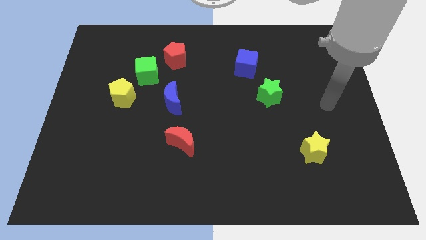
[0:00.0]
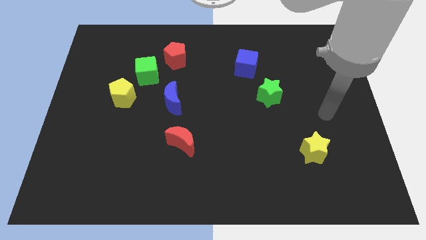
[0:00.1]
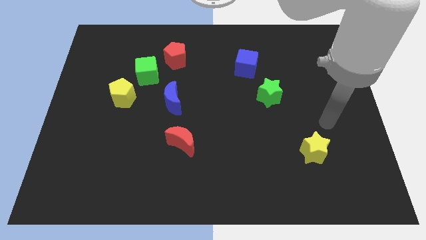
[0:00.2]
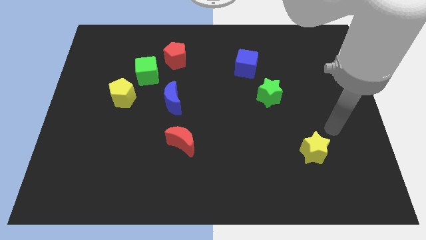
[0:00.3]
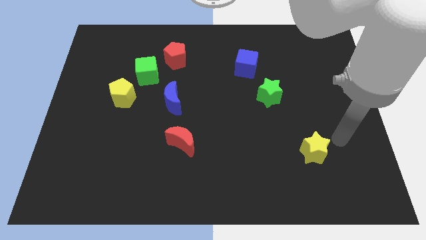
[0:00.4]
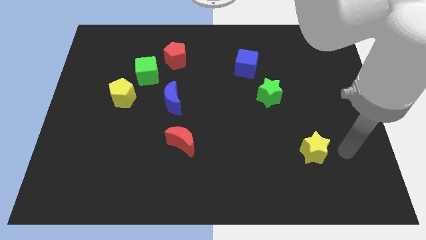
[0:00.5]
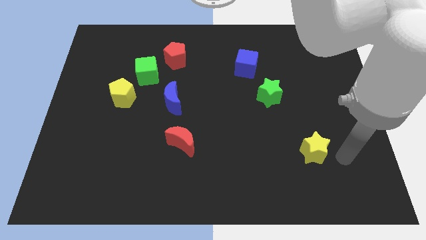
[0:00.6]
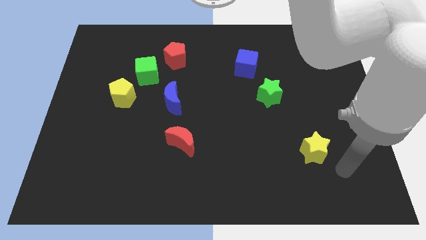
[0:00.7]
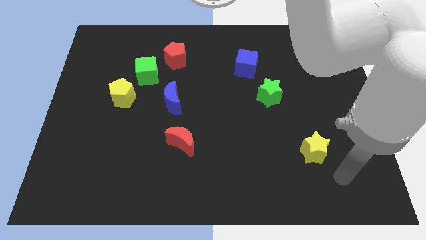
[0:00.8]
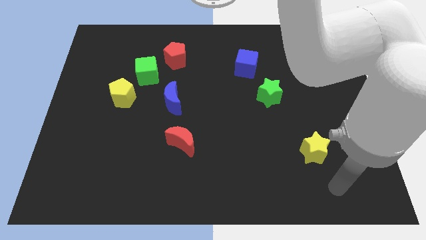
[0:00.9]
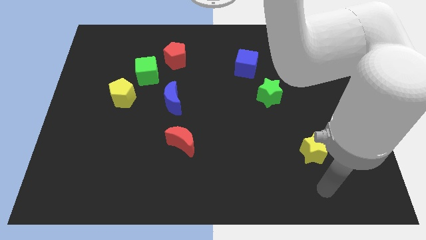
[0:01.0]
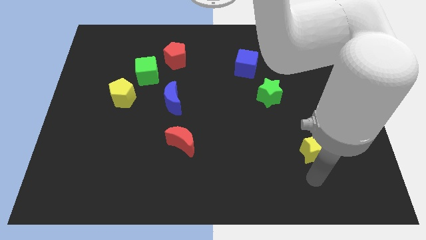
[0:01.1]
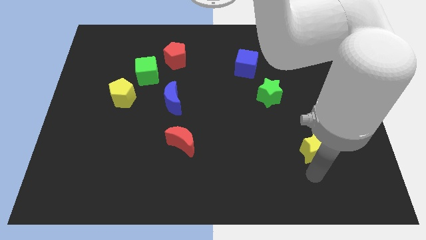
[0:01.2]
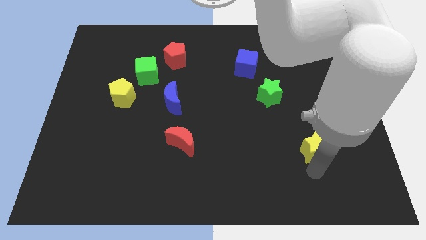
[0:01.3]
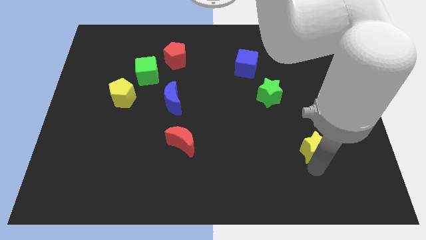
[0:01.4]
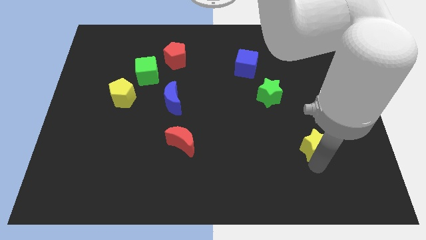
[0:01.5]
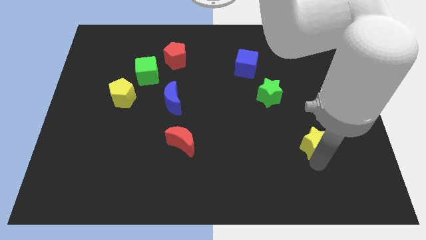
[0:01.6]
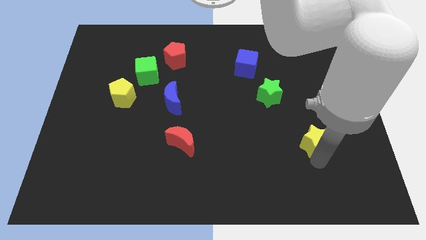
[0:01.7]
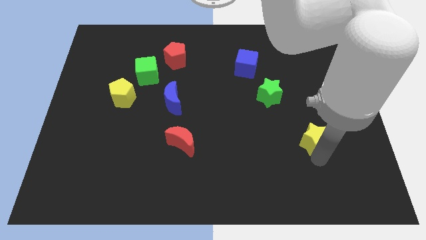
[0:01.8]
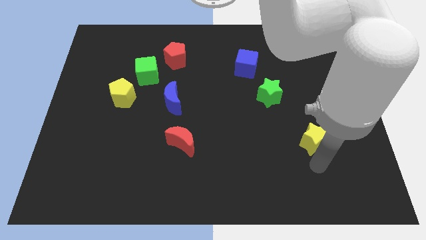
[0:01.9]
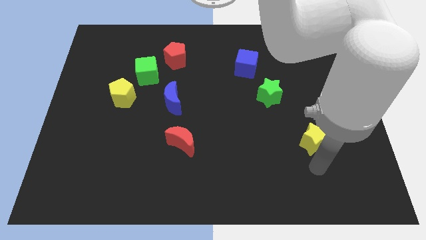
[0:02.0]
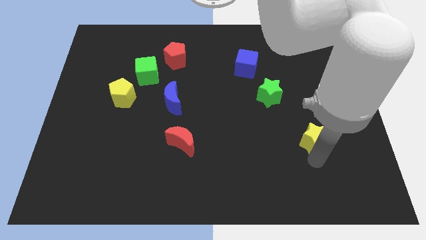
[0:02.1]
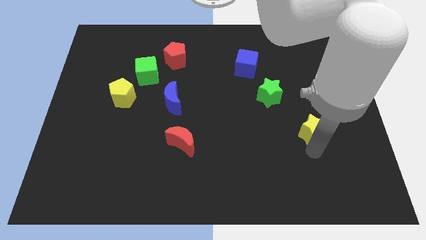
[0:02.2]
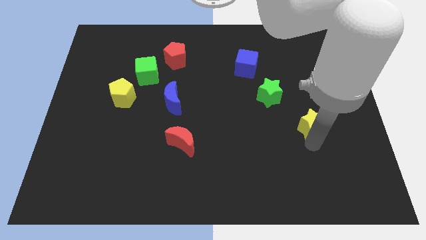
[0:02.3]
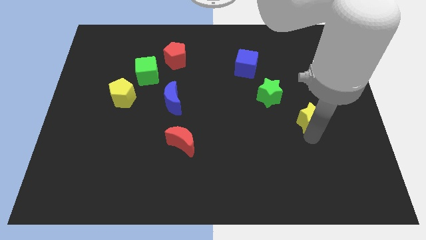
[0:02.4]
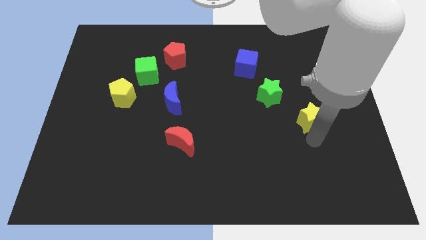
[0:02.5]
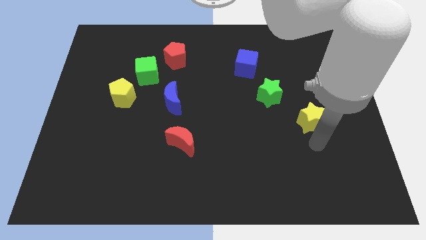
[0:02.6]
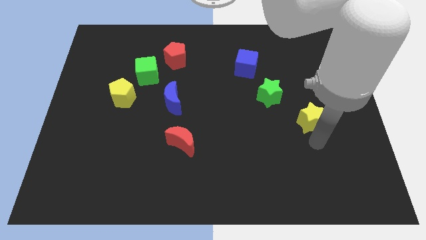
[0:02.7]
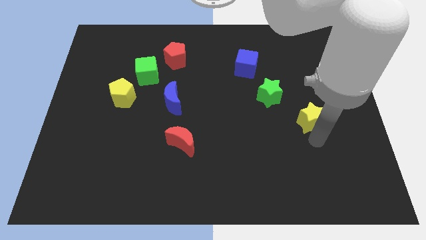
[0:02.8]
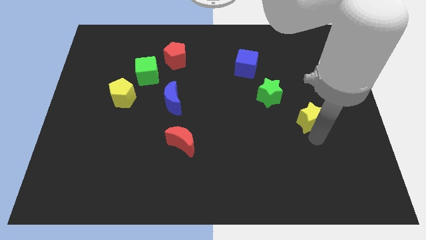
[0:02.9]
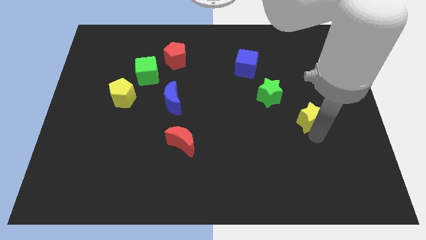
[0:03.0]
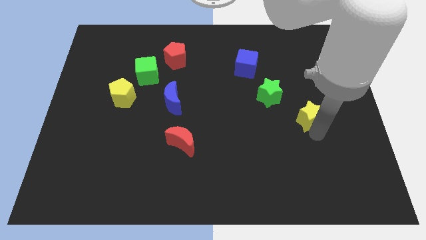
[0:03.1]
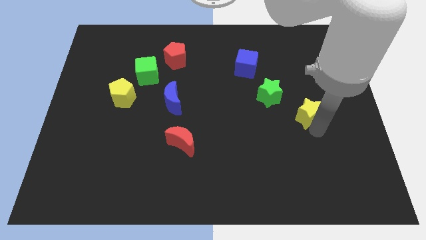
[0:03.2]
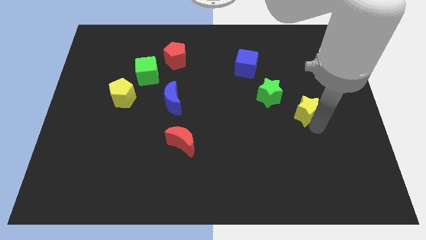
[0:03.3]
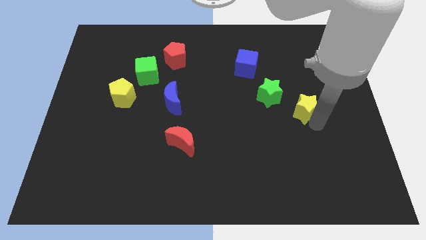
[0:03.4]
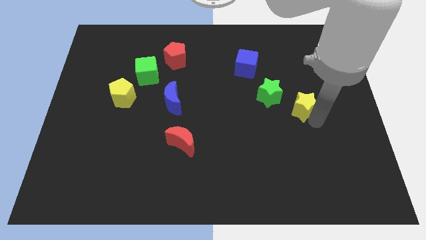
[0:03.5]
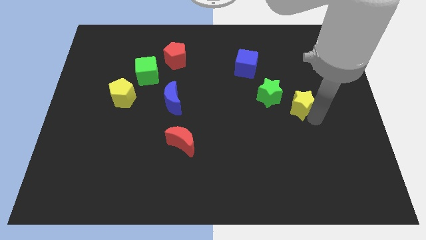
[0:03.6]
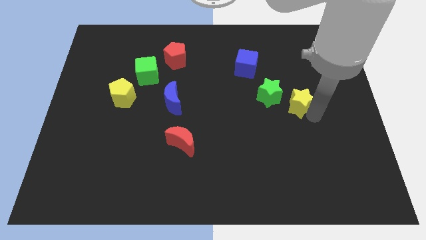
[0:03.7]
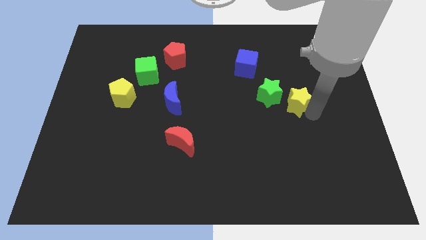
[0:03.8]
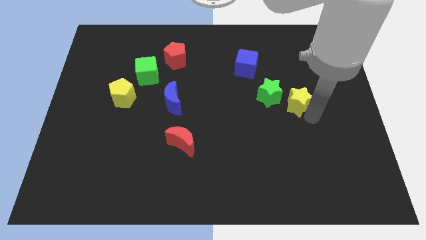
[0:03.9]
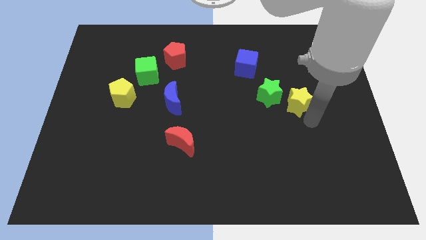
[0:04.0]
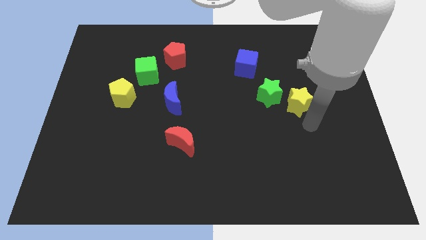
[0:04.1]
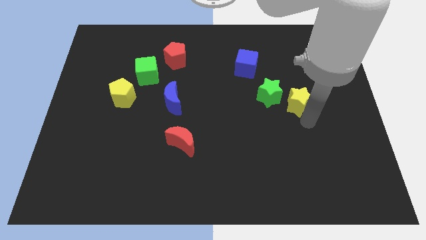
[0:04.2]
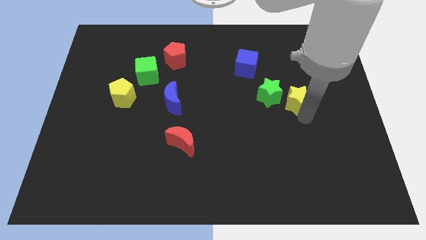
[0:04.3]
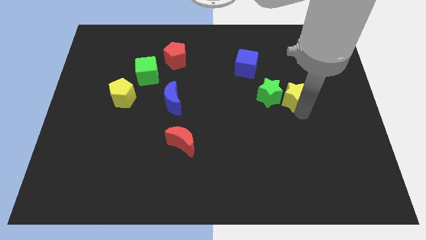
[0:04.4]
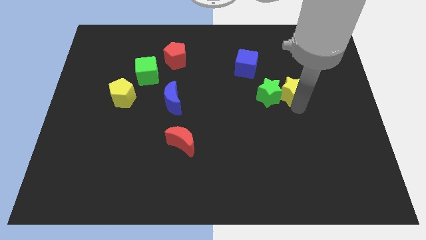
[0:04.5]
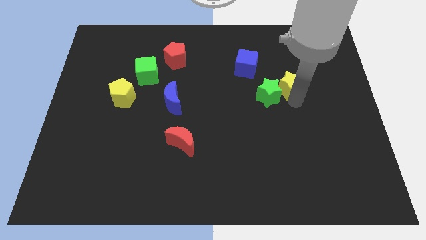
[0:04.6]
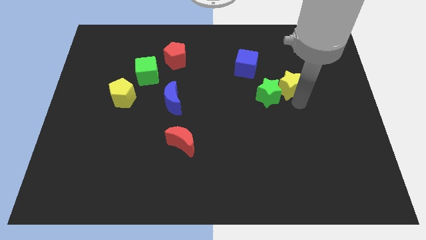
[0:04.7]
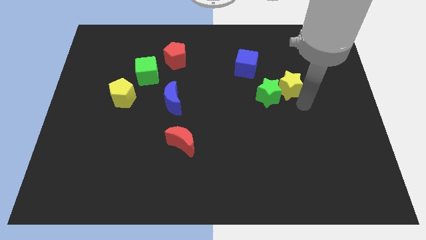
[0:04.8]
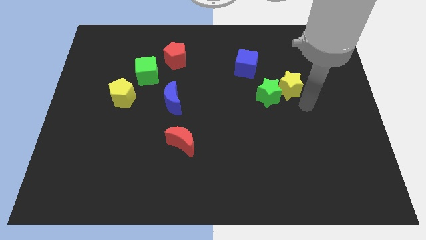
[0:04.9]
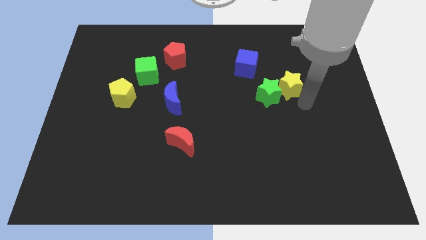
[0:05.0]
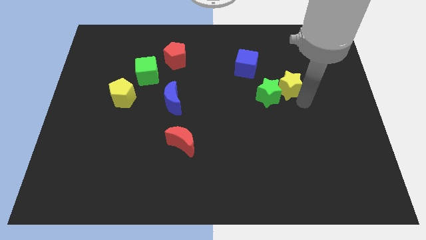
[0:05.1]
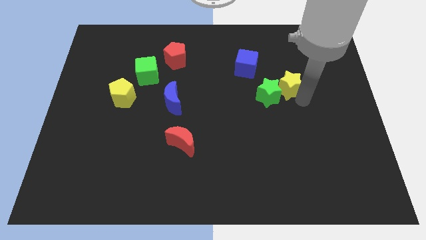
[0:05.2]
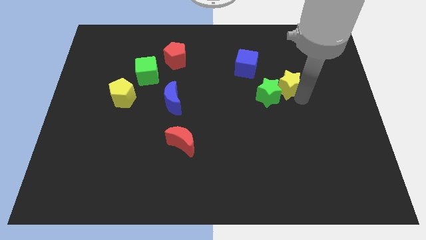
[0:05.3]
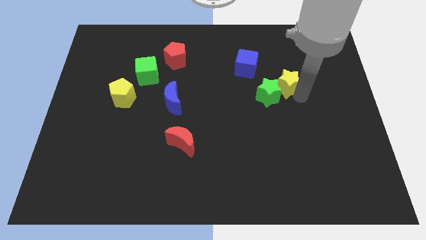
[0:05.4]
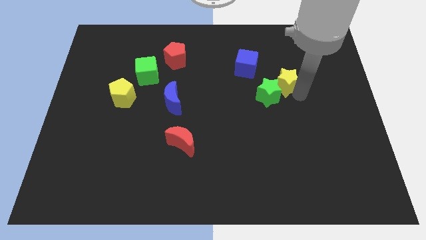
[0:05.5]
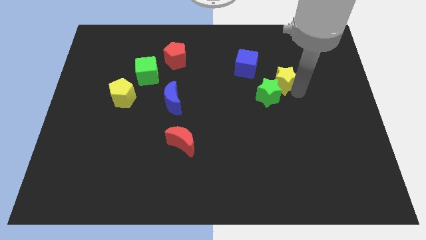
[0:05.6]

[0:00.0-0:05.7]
push the yellow star to the top of the green star

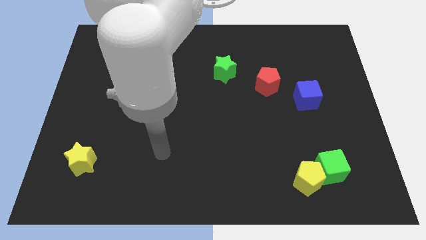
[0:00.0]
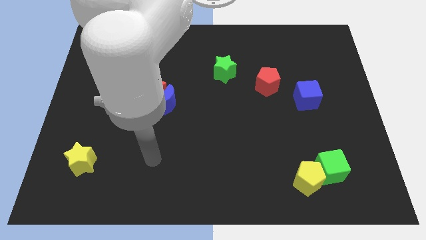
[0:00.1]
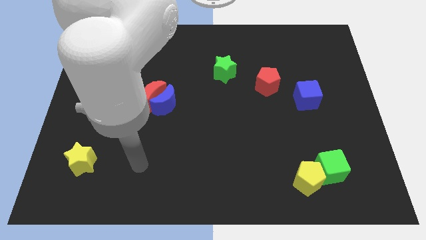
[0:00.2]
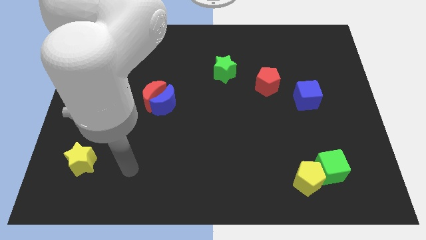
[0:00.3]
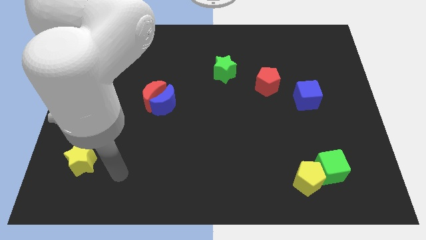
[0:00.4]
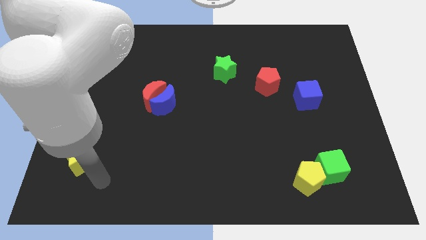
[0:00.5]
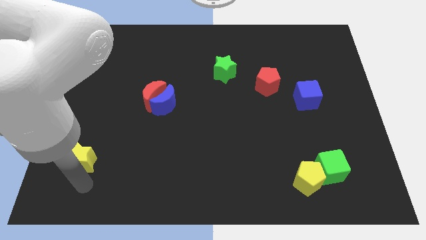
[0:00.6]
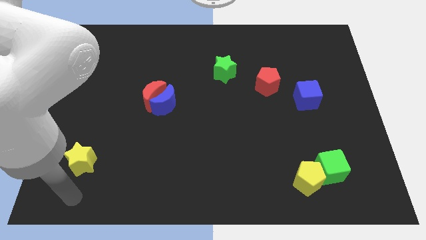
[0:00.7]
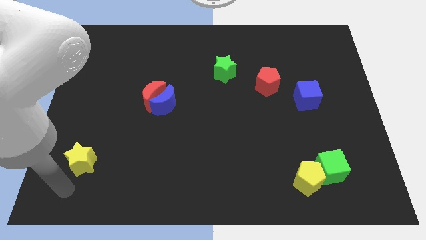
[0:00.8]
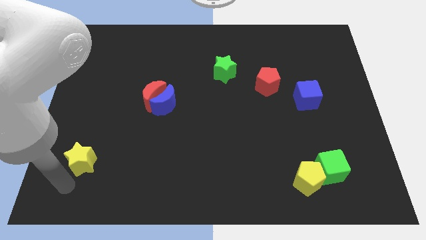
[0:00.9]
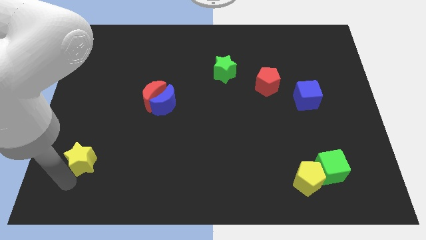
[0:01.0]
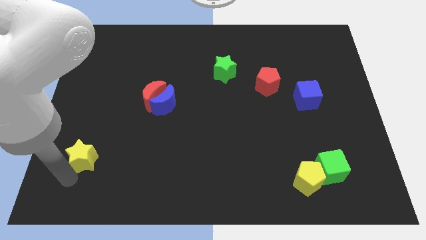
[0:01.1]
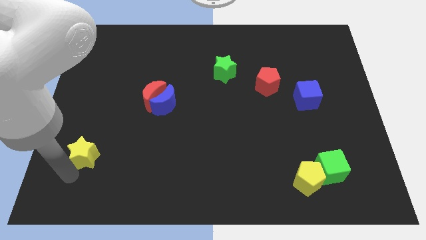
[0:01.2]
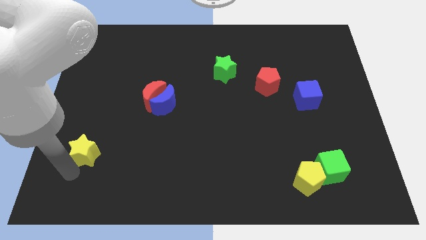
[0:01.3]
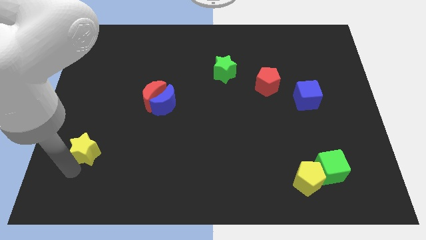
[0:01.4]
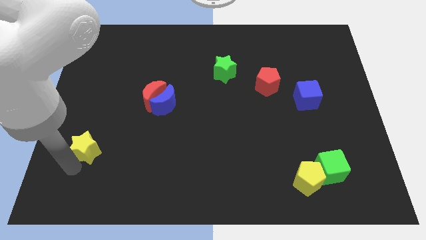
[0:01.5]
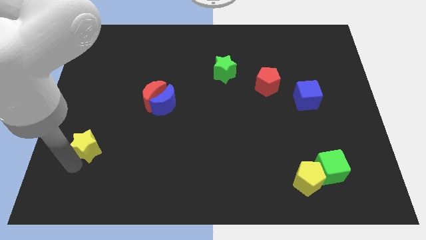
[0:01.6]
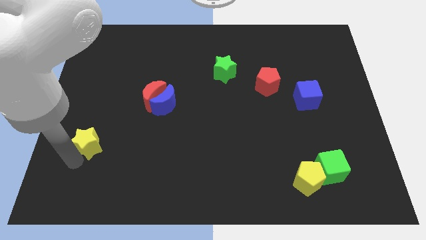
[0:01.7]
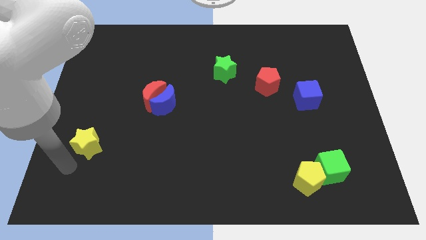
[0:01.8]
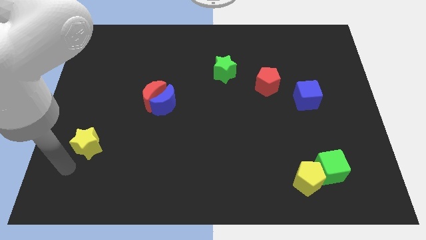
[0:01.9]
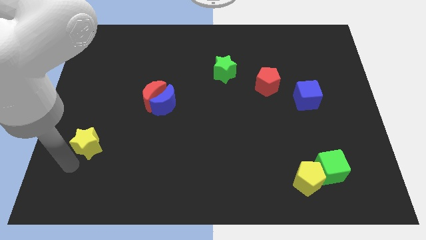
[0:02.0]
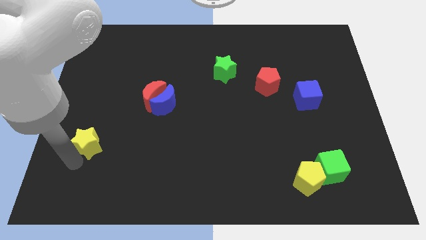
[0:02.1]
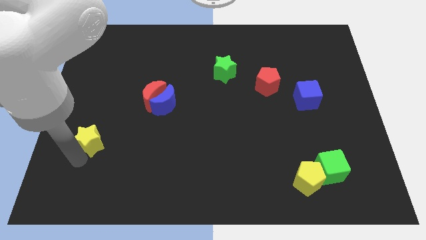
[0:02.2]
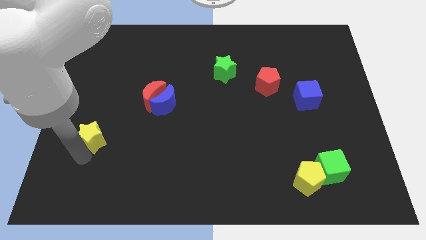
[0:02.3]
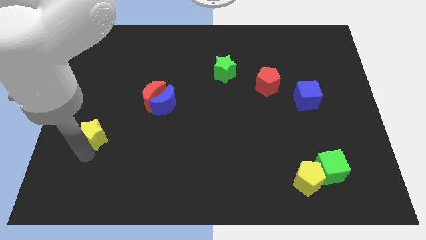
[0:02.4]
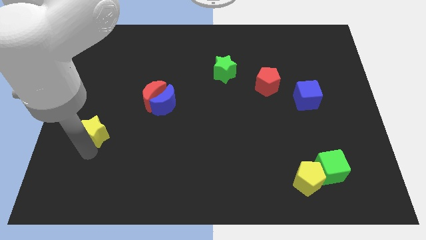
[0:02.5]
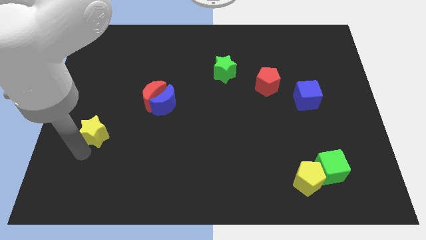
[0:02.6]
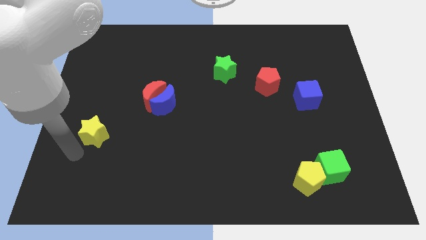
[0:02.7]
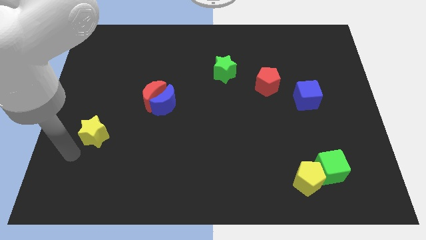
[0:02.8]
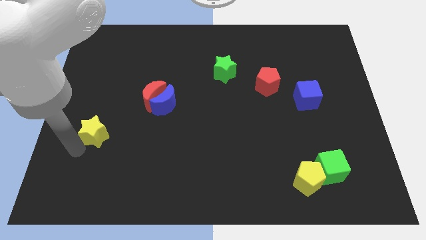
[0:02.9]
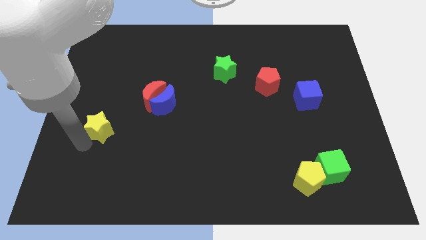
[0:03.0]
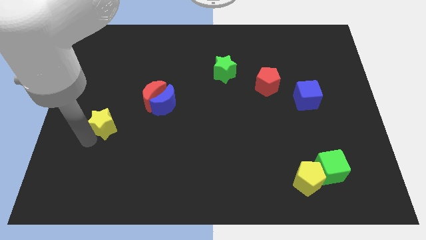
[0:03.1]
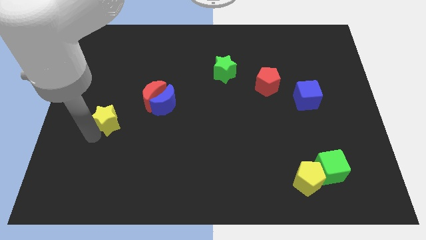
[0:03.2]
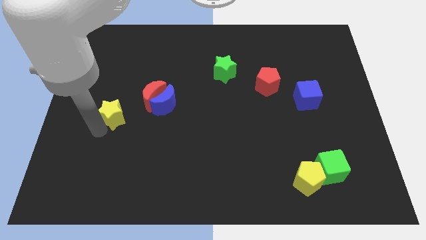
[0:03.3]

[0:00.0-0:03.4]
slide the yellow star to the left side of the blue moon
